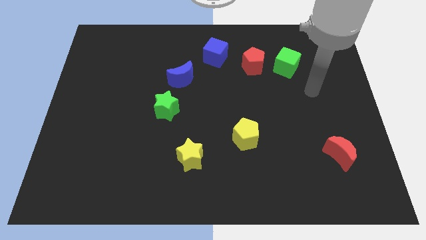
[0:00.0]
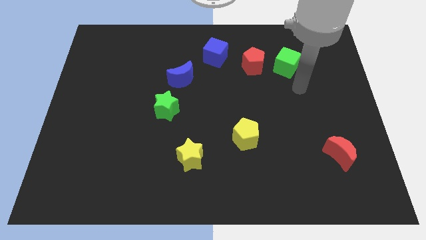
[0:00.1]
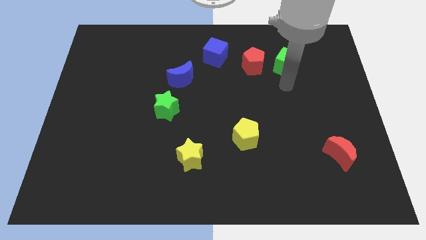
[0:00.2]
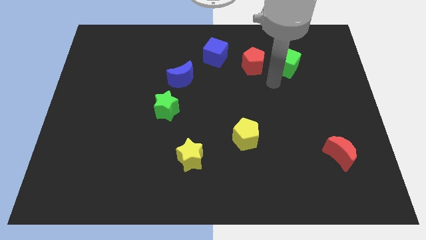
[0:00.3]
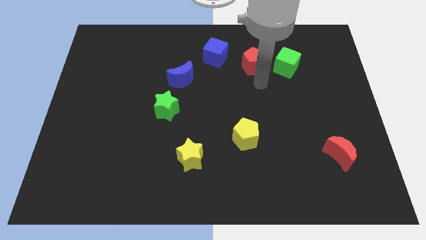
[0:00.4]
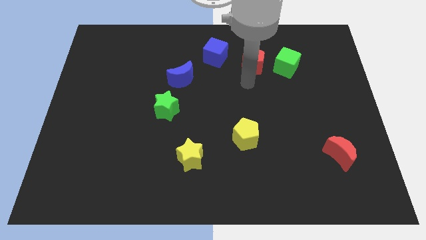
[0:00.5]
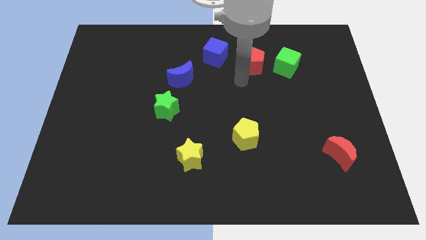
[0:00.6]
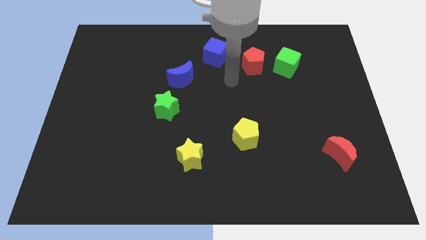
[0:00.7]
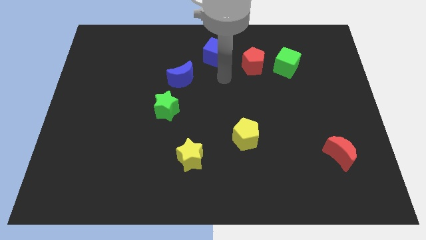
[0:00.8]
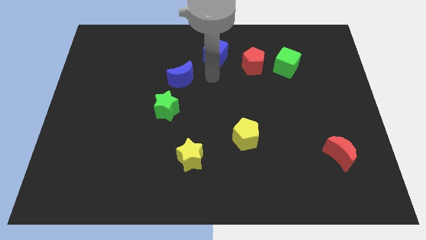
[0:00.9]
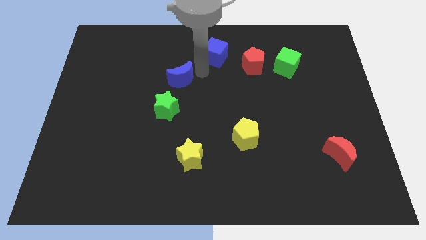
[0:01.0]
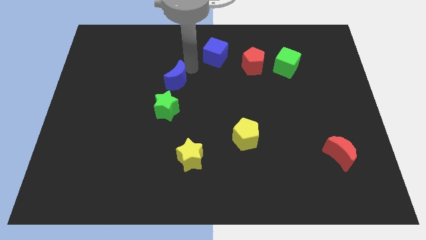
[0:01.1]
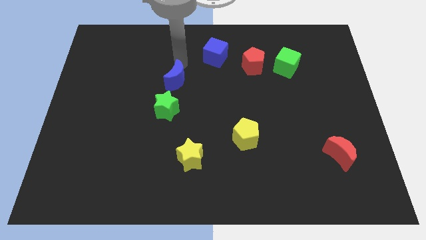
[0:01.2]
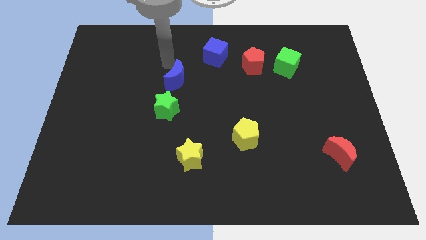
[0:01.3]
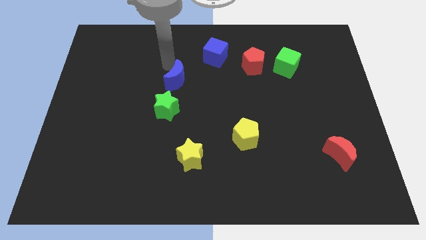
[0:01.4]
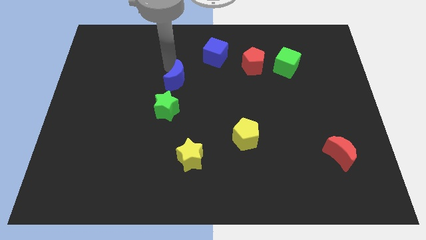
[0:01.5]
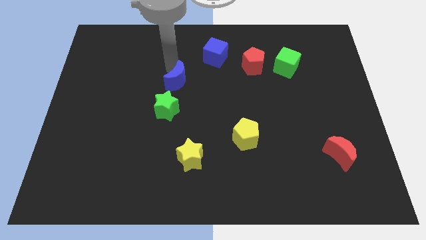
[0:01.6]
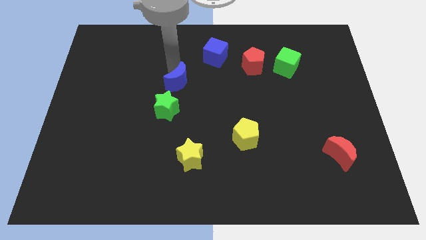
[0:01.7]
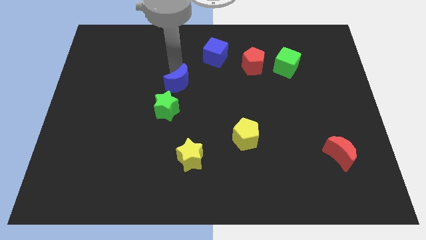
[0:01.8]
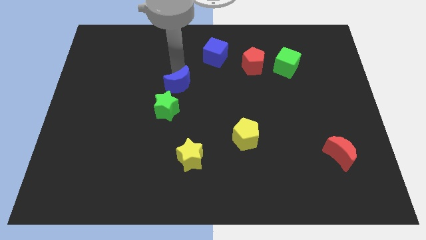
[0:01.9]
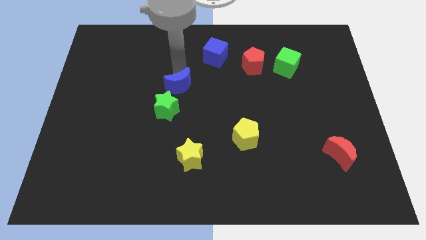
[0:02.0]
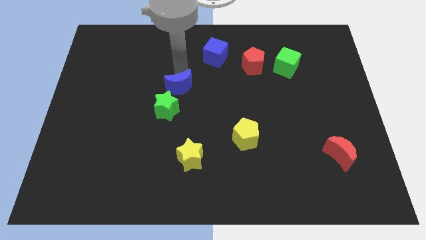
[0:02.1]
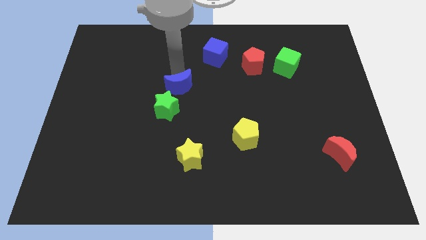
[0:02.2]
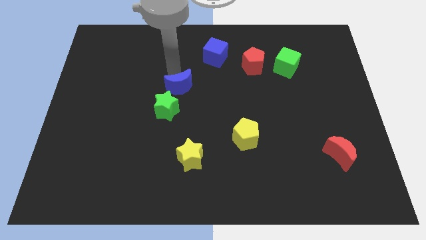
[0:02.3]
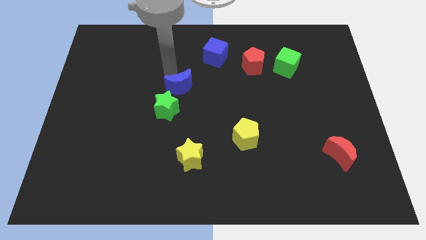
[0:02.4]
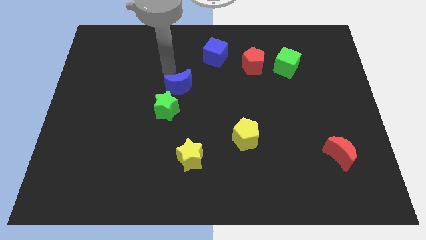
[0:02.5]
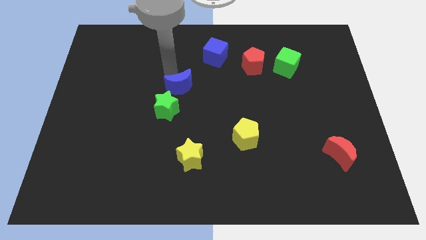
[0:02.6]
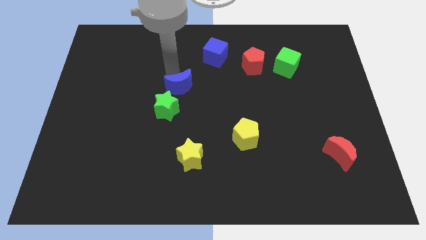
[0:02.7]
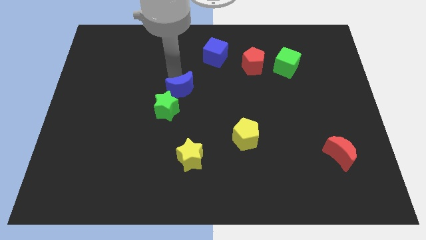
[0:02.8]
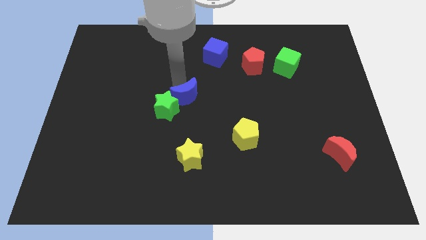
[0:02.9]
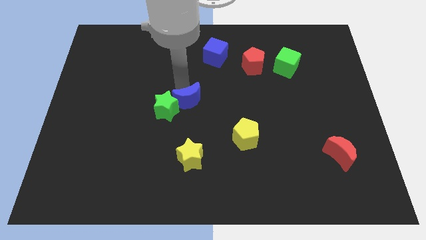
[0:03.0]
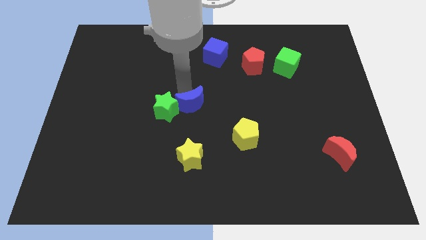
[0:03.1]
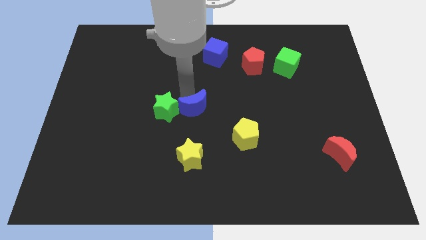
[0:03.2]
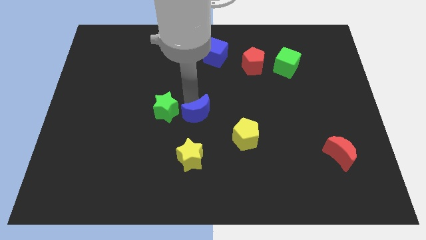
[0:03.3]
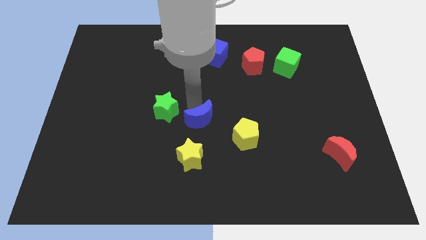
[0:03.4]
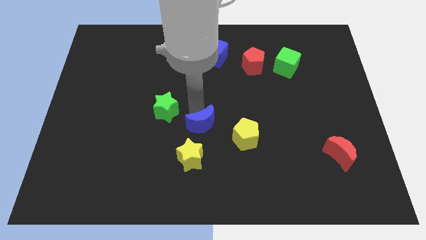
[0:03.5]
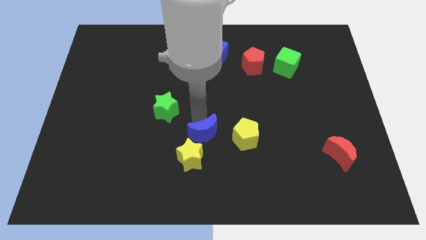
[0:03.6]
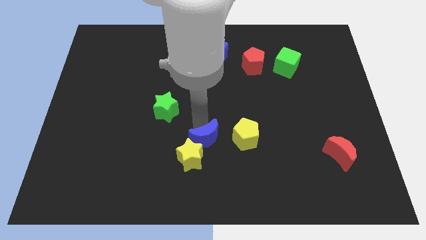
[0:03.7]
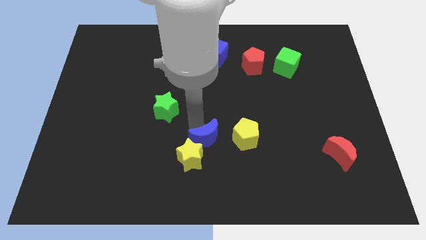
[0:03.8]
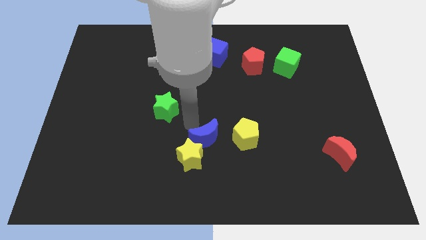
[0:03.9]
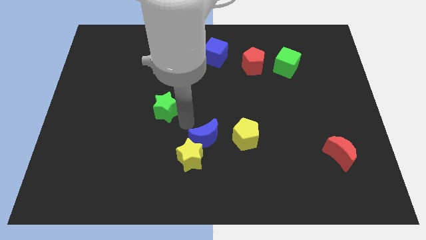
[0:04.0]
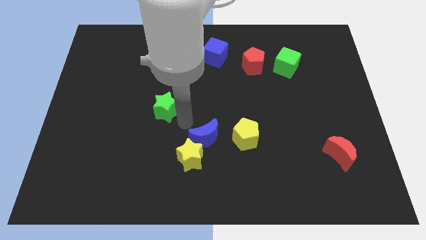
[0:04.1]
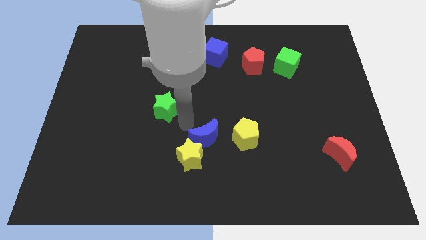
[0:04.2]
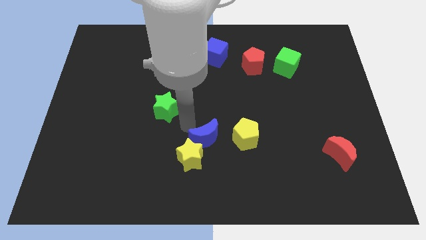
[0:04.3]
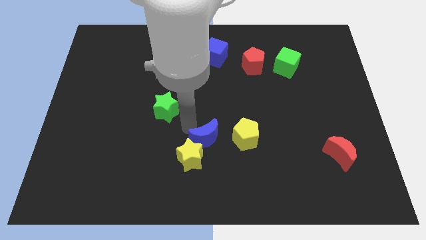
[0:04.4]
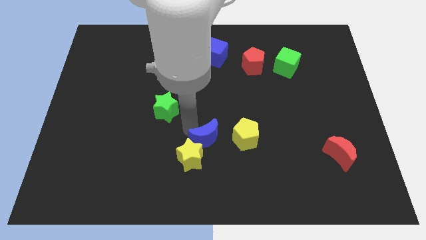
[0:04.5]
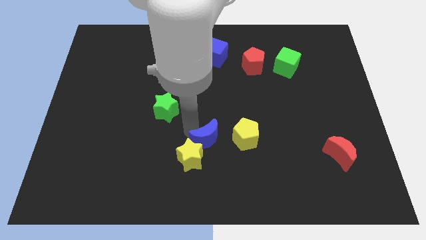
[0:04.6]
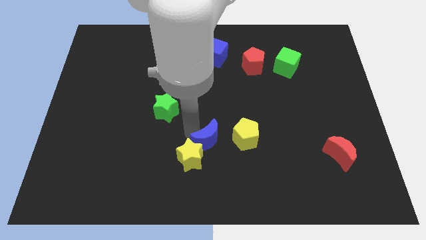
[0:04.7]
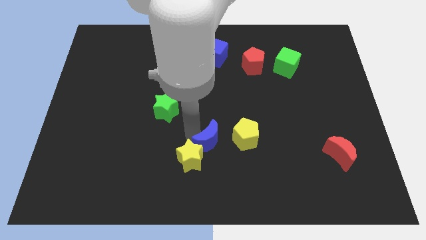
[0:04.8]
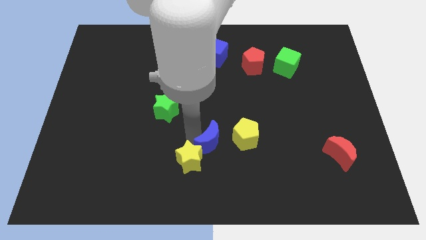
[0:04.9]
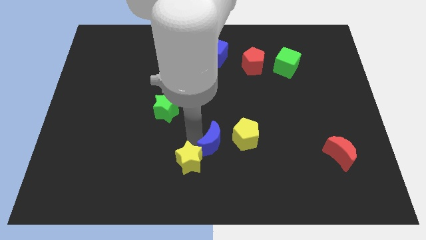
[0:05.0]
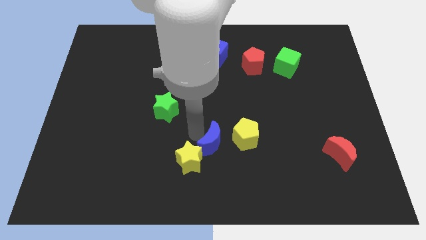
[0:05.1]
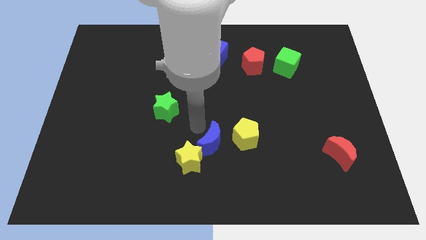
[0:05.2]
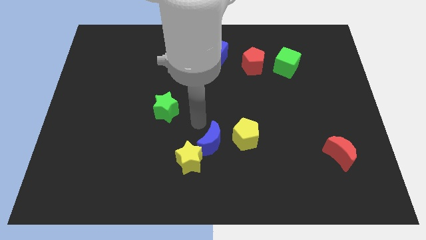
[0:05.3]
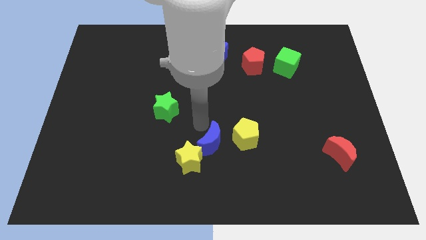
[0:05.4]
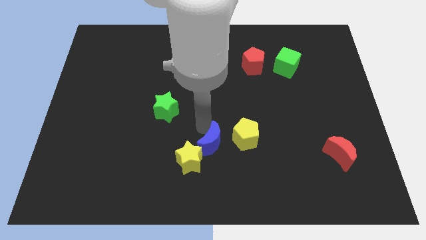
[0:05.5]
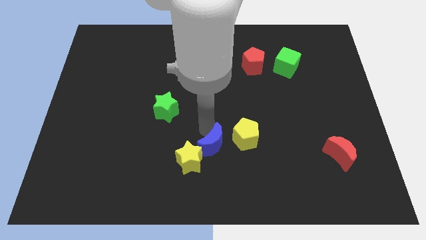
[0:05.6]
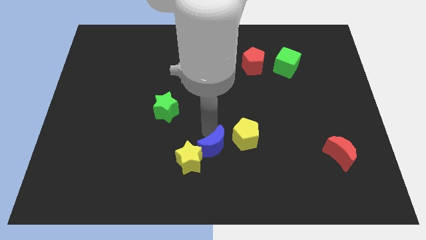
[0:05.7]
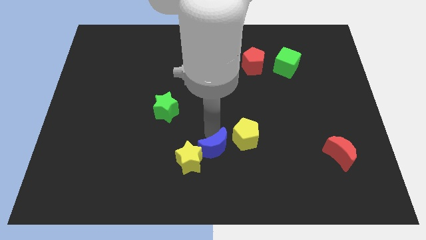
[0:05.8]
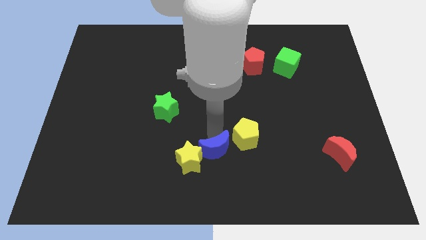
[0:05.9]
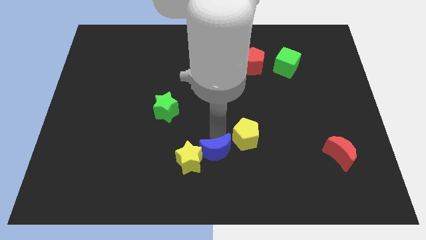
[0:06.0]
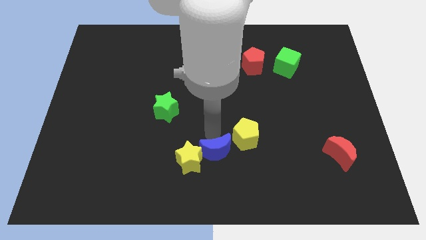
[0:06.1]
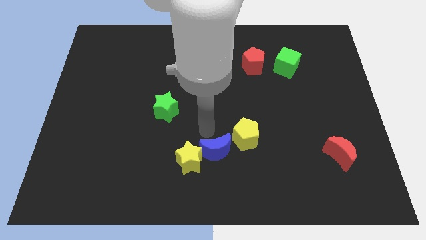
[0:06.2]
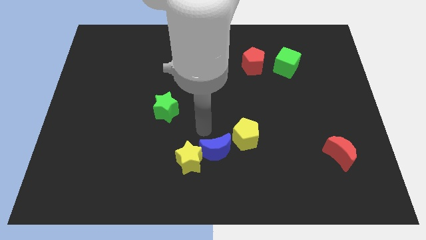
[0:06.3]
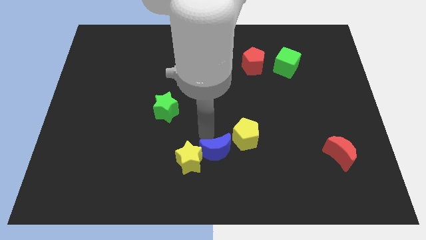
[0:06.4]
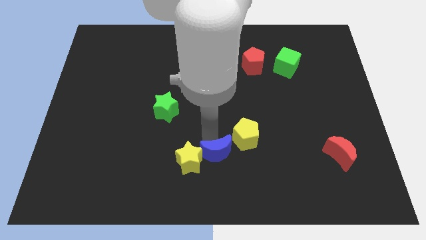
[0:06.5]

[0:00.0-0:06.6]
put the blue moon to the bottom side
